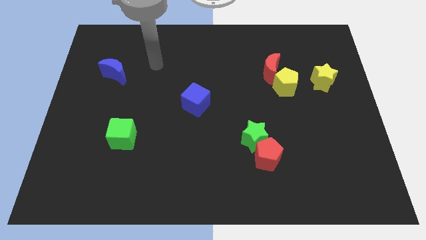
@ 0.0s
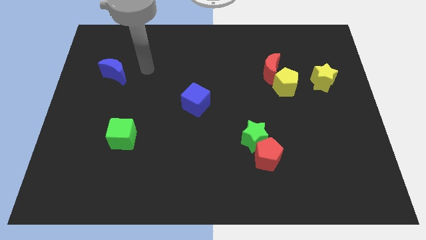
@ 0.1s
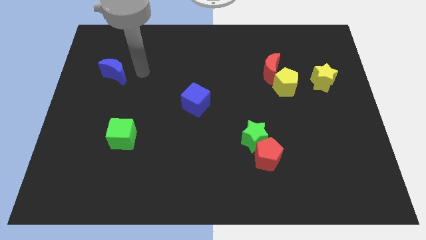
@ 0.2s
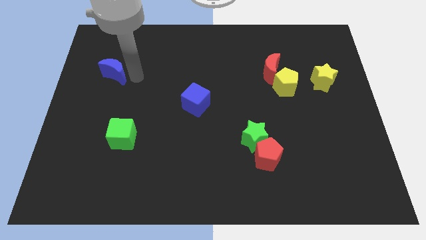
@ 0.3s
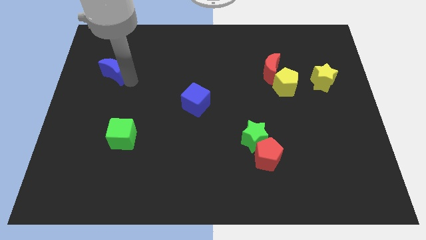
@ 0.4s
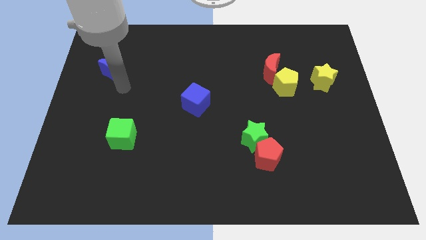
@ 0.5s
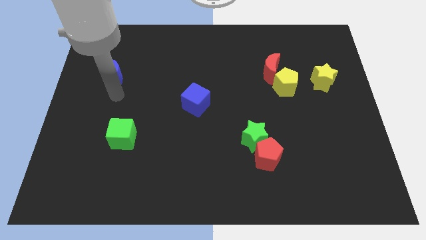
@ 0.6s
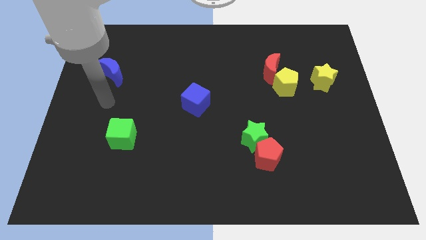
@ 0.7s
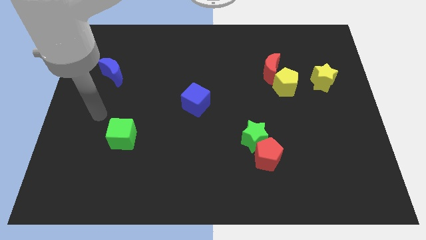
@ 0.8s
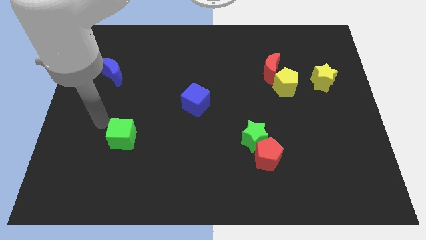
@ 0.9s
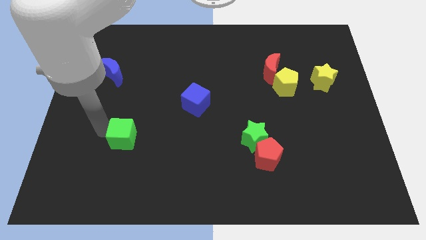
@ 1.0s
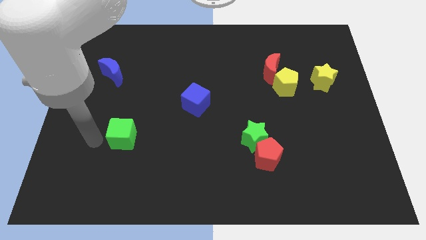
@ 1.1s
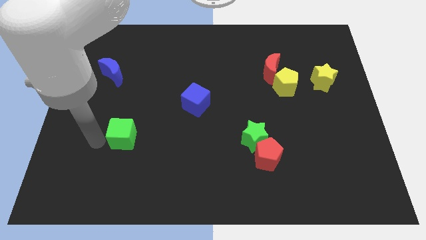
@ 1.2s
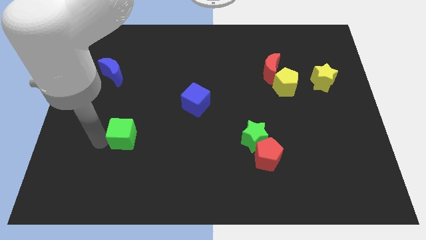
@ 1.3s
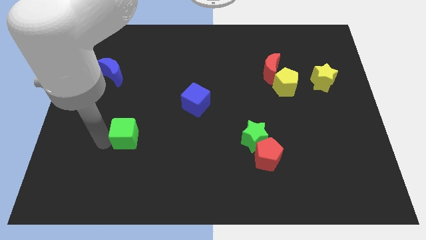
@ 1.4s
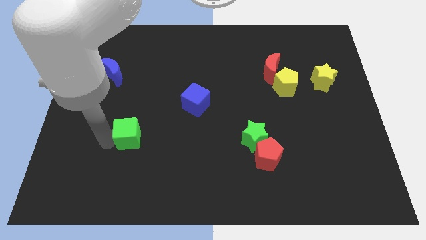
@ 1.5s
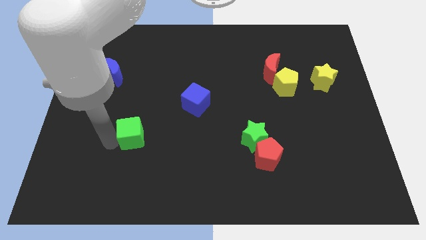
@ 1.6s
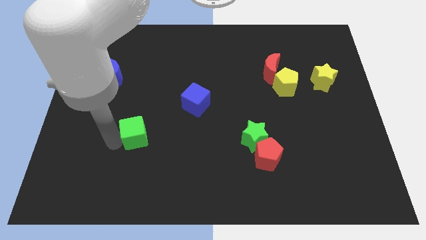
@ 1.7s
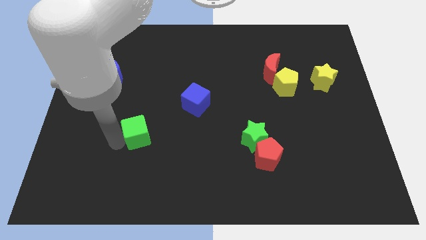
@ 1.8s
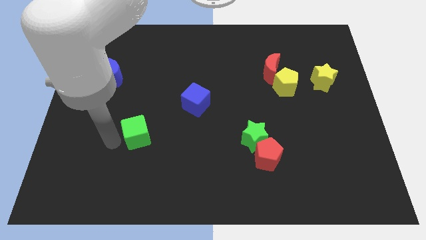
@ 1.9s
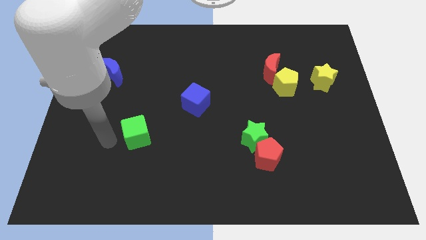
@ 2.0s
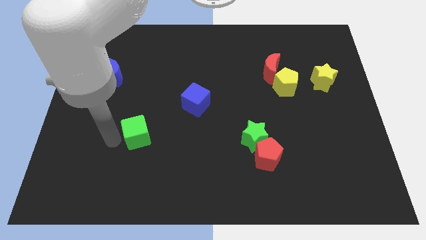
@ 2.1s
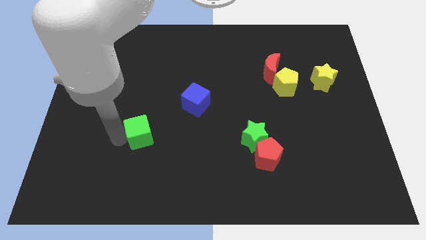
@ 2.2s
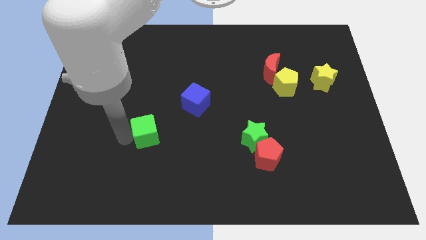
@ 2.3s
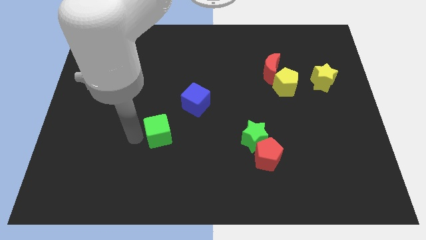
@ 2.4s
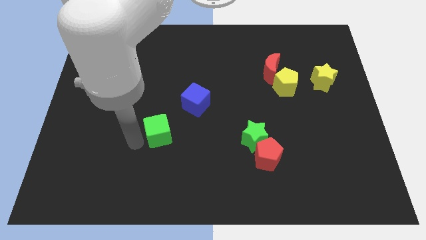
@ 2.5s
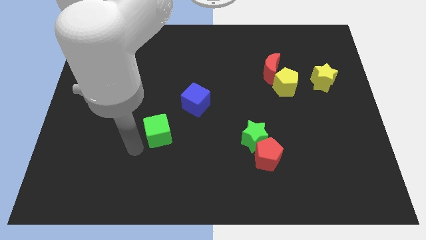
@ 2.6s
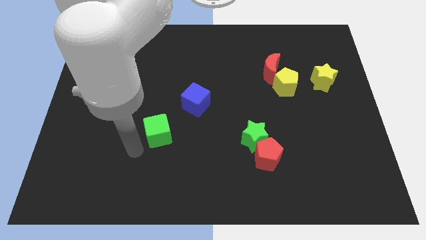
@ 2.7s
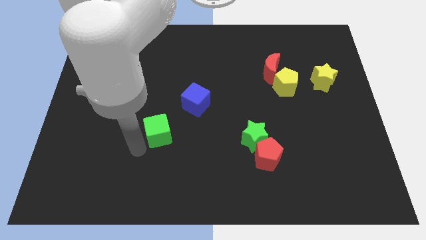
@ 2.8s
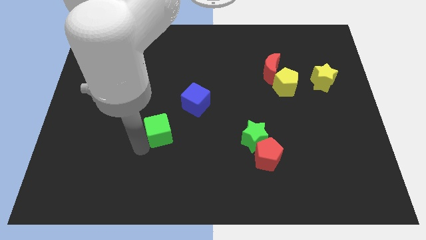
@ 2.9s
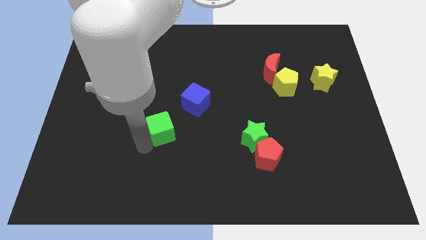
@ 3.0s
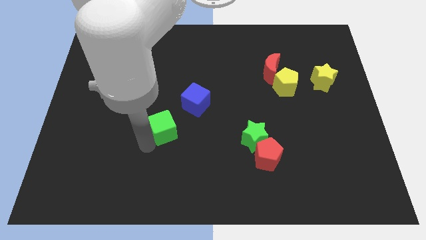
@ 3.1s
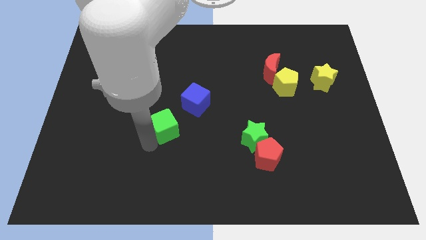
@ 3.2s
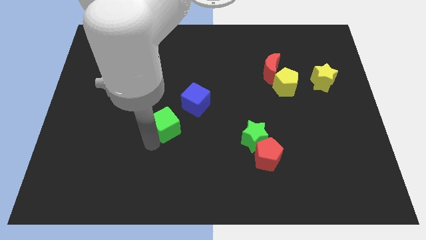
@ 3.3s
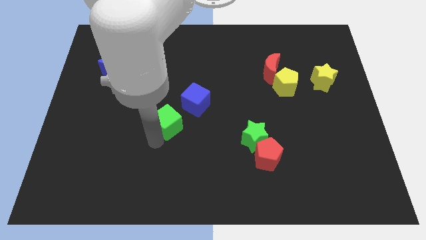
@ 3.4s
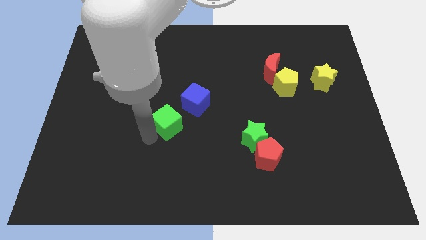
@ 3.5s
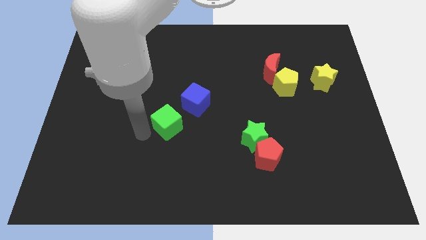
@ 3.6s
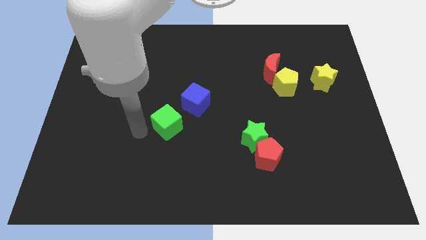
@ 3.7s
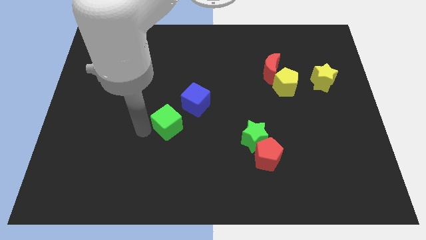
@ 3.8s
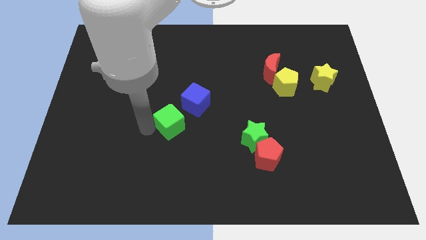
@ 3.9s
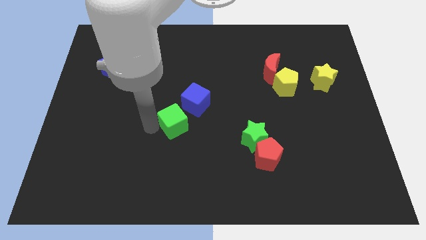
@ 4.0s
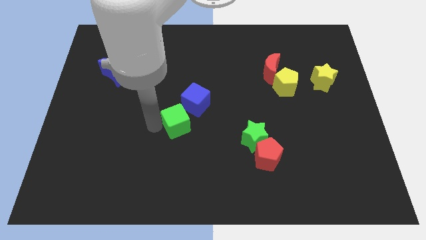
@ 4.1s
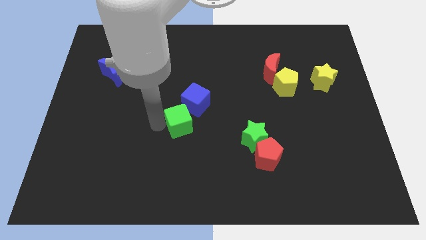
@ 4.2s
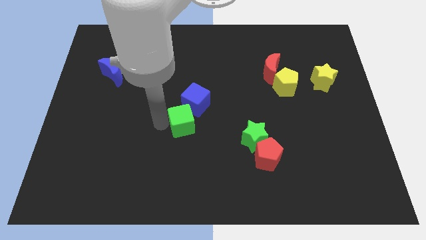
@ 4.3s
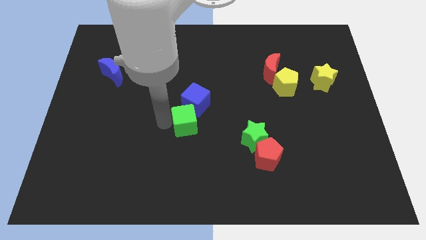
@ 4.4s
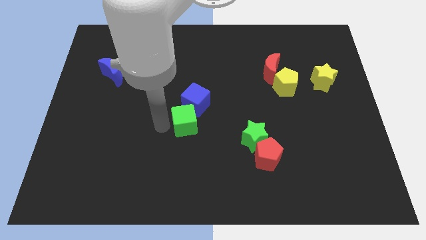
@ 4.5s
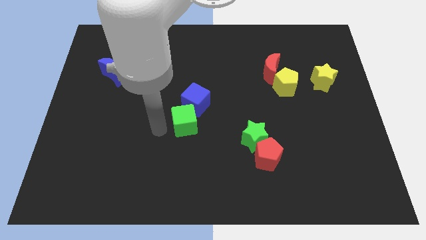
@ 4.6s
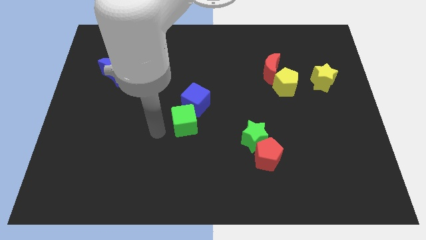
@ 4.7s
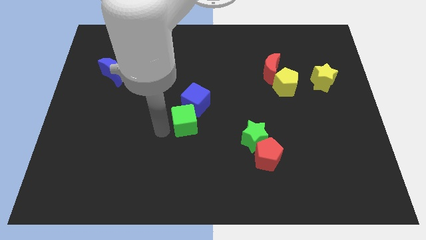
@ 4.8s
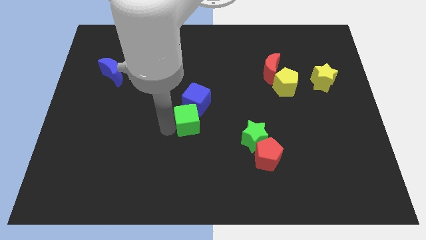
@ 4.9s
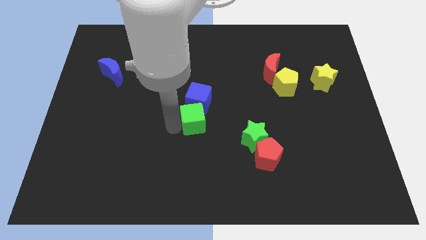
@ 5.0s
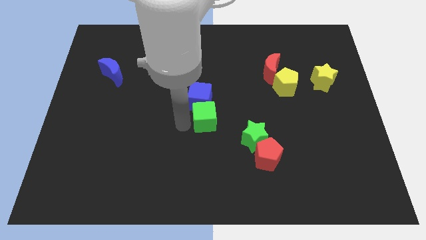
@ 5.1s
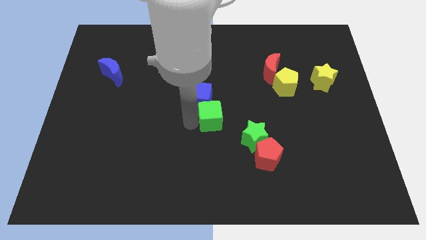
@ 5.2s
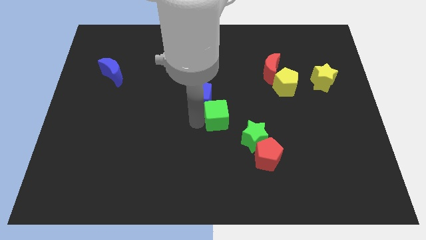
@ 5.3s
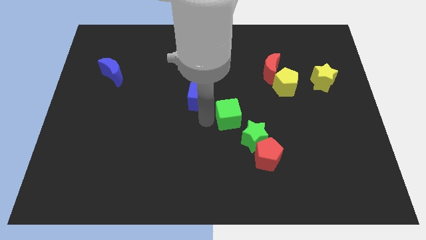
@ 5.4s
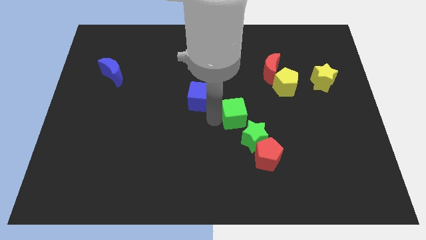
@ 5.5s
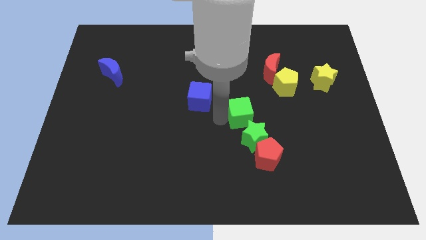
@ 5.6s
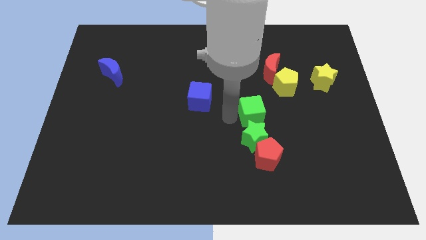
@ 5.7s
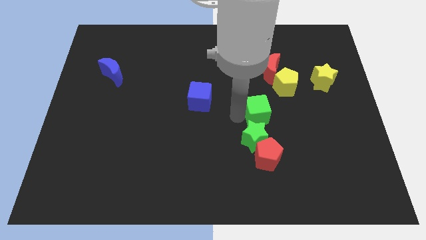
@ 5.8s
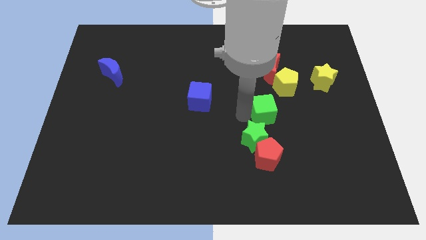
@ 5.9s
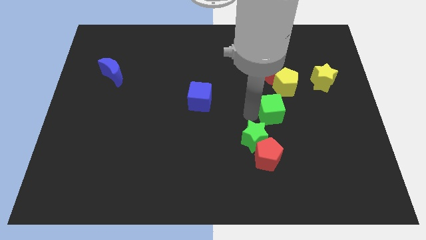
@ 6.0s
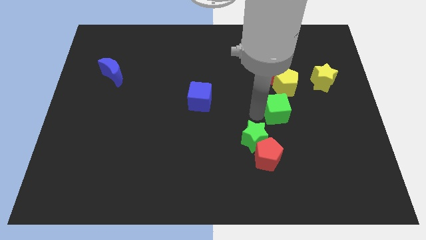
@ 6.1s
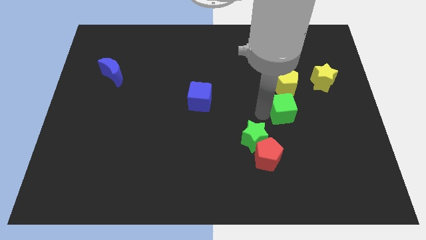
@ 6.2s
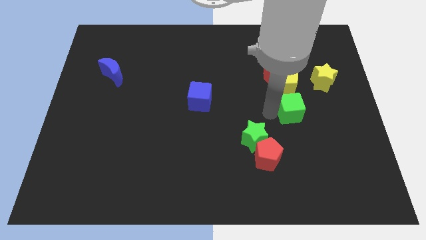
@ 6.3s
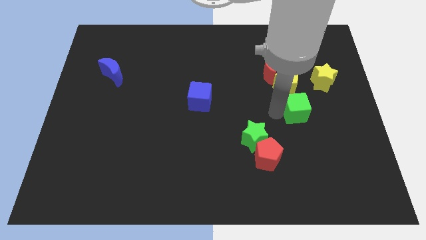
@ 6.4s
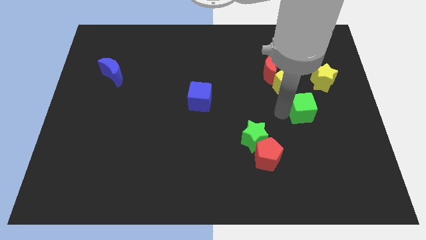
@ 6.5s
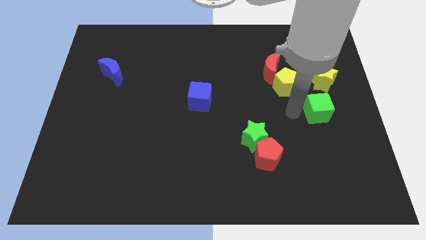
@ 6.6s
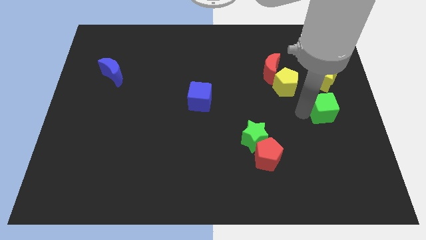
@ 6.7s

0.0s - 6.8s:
move the green cube to the center right
